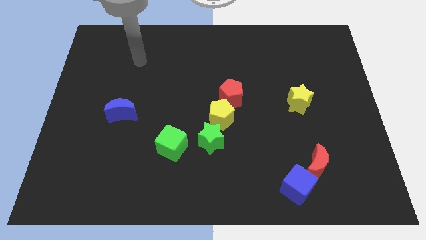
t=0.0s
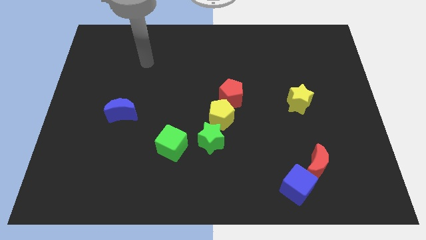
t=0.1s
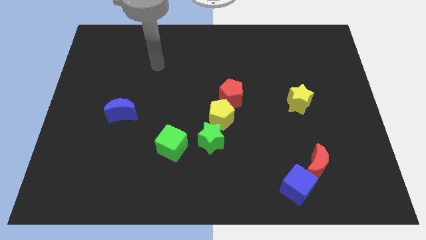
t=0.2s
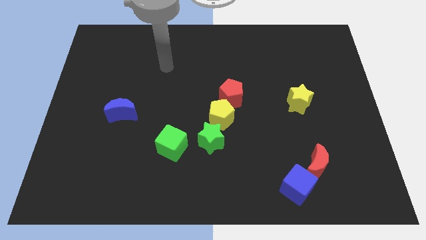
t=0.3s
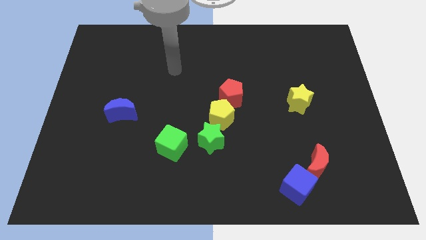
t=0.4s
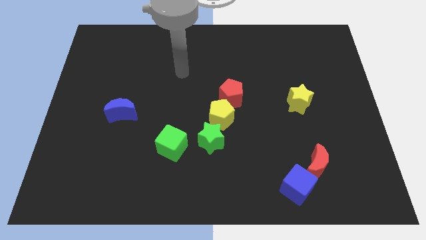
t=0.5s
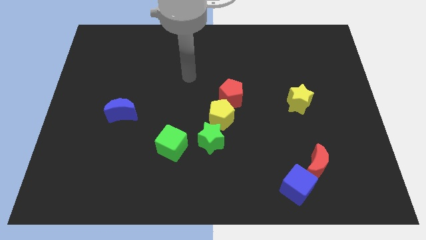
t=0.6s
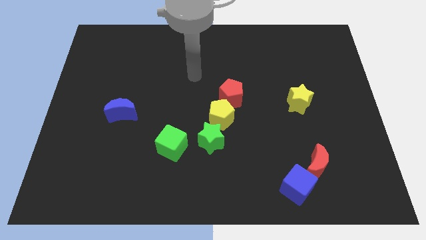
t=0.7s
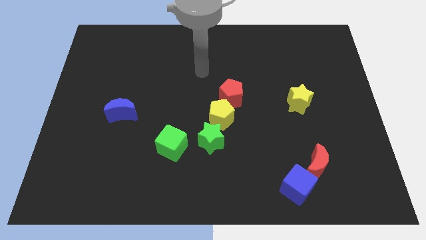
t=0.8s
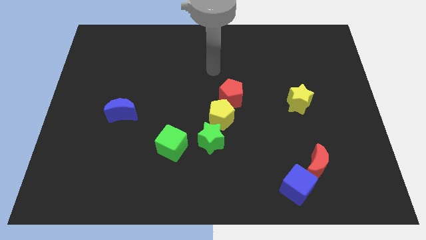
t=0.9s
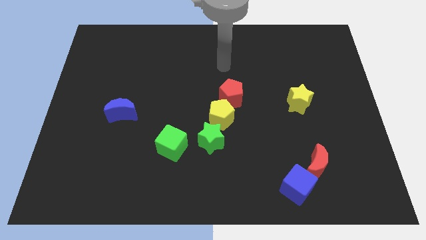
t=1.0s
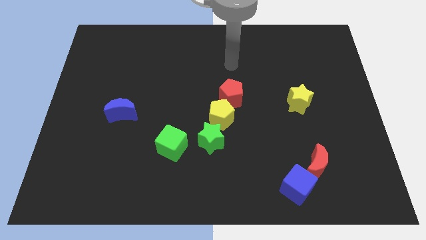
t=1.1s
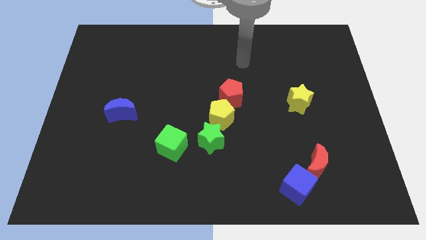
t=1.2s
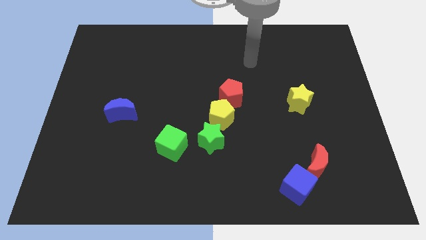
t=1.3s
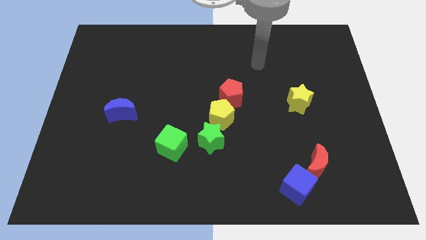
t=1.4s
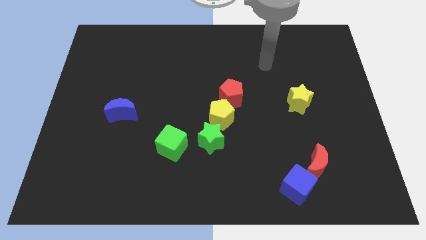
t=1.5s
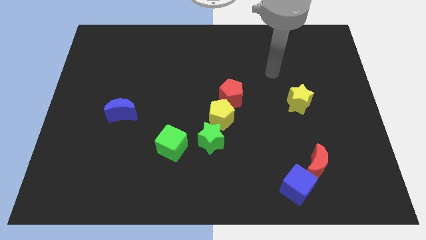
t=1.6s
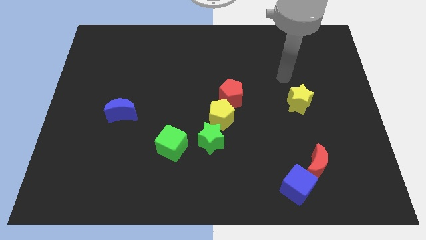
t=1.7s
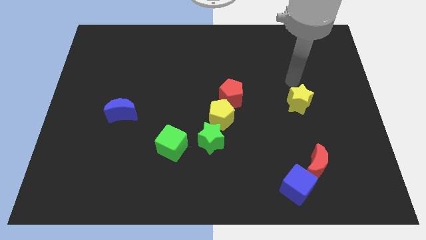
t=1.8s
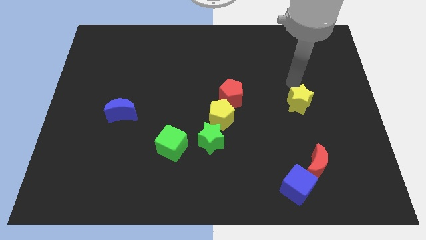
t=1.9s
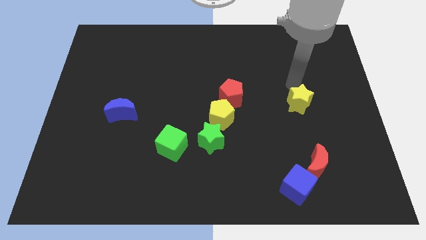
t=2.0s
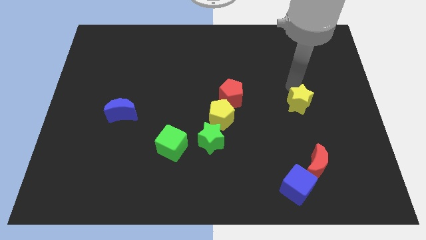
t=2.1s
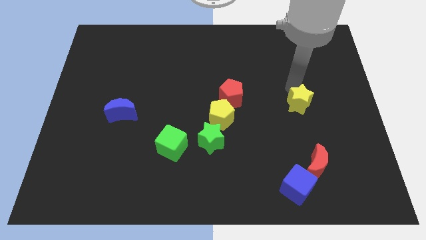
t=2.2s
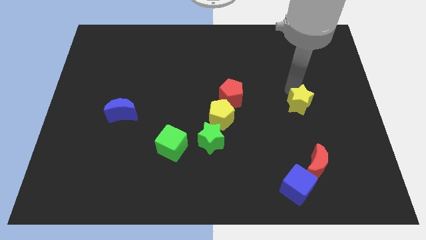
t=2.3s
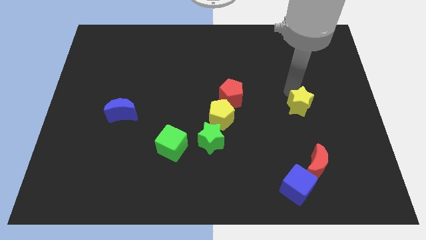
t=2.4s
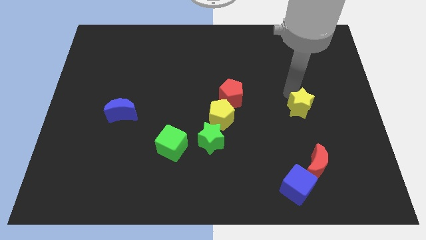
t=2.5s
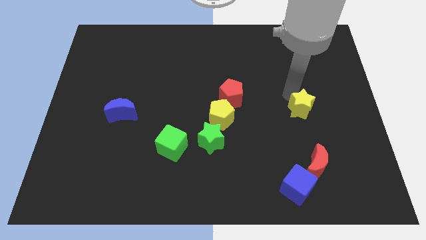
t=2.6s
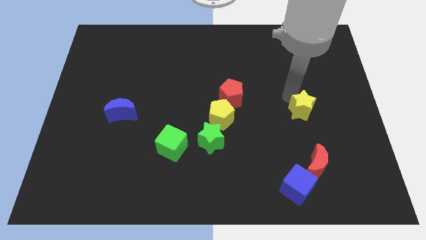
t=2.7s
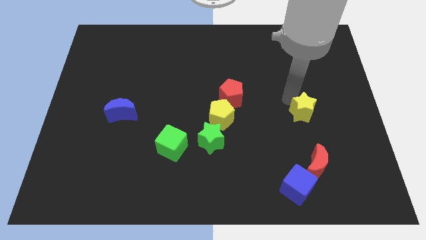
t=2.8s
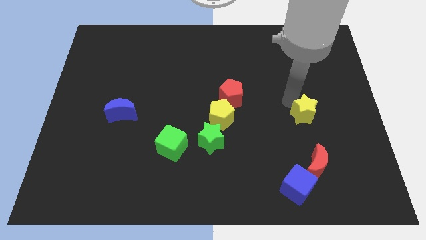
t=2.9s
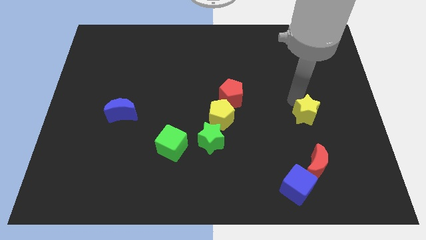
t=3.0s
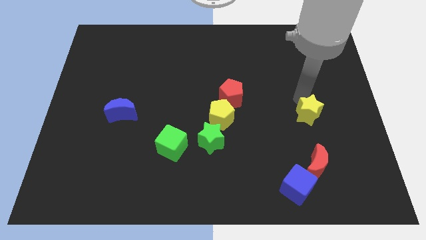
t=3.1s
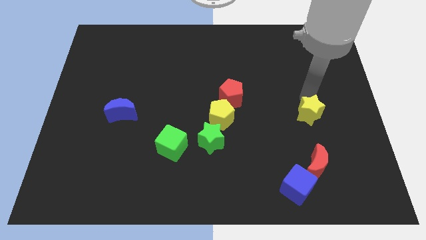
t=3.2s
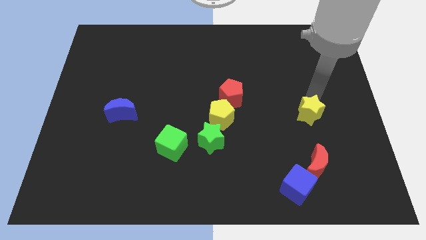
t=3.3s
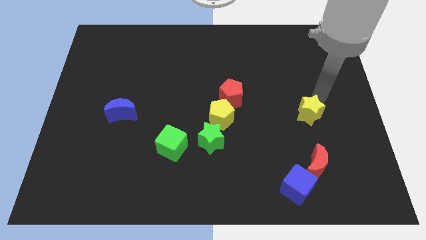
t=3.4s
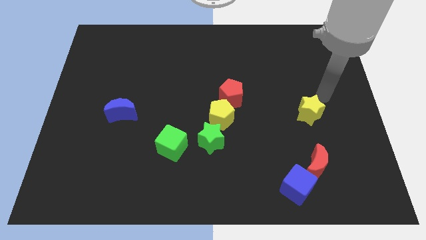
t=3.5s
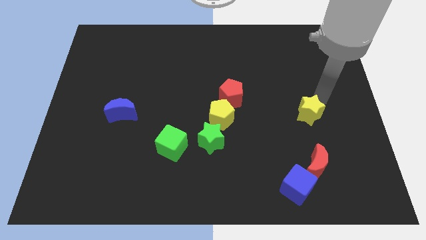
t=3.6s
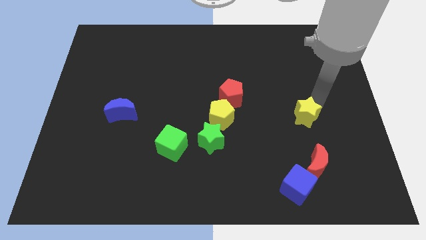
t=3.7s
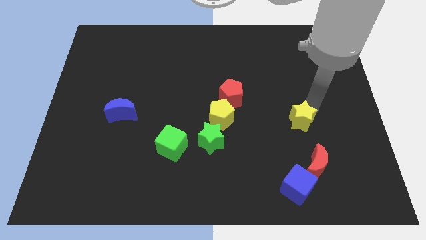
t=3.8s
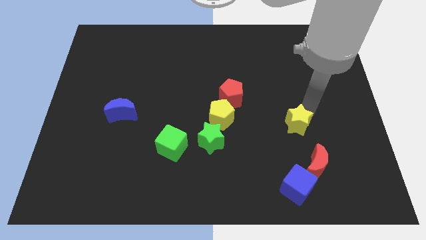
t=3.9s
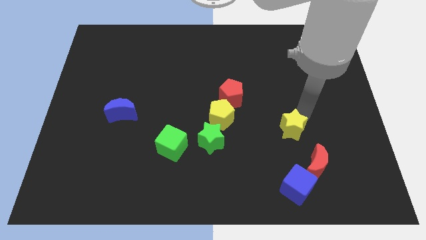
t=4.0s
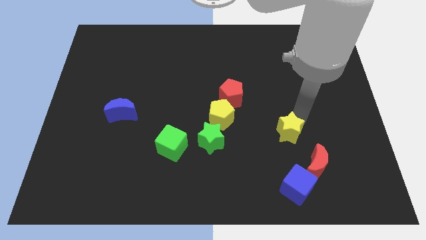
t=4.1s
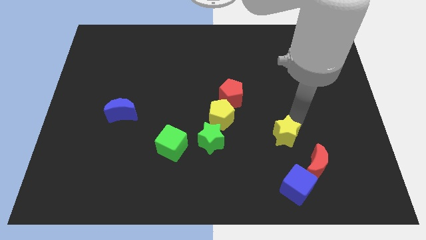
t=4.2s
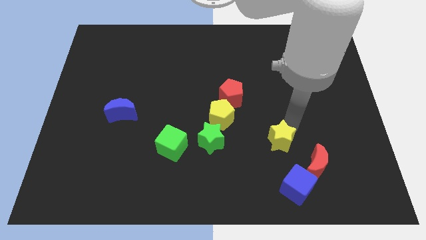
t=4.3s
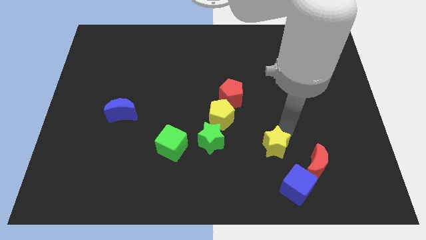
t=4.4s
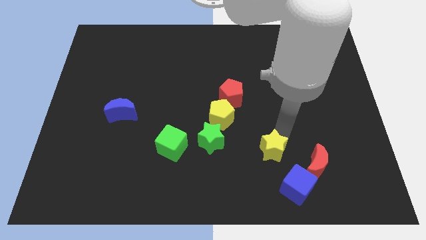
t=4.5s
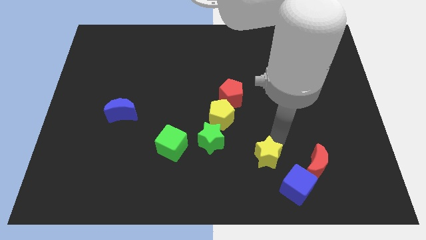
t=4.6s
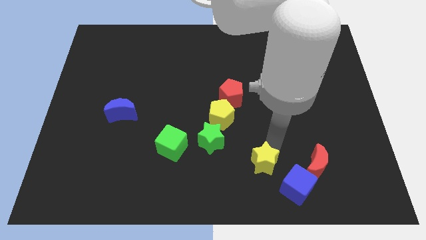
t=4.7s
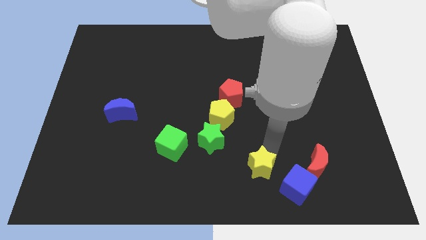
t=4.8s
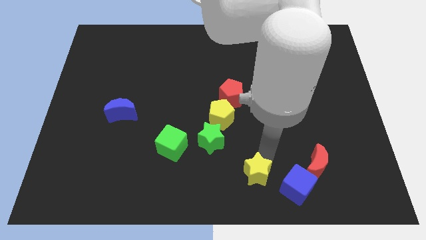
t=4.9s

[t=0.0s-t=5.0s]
push the yellow star to the bottom

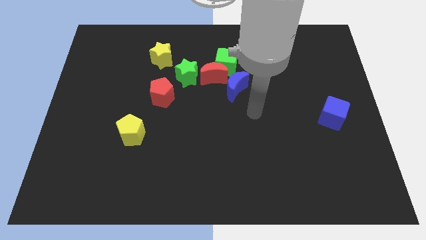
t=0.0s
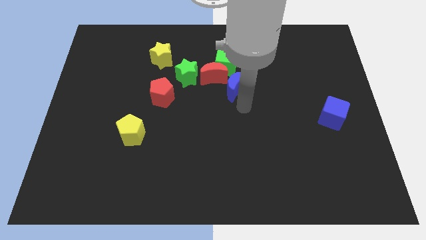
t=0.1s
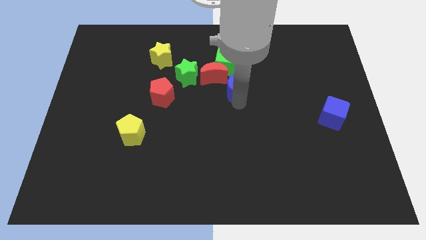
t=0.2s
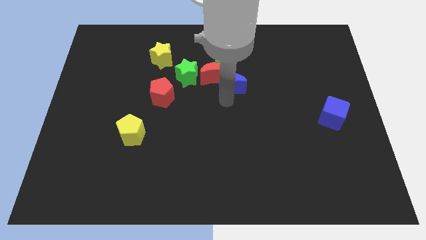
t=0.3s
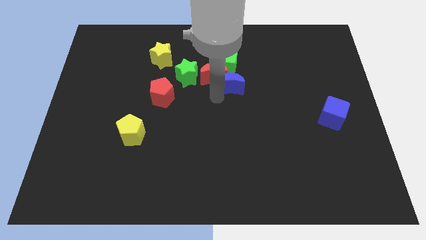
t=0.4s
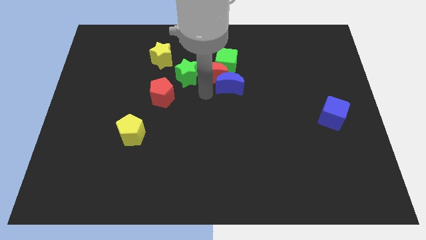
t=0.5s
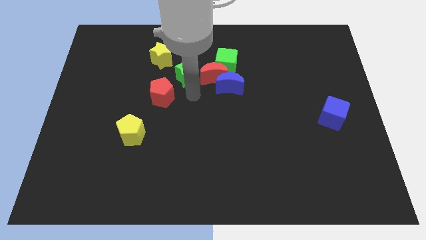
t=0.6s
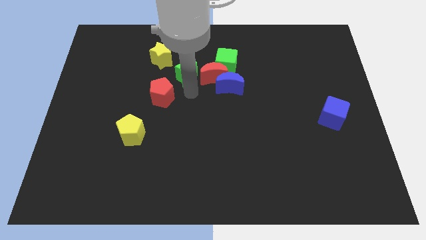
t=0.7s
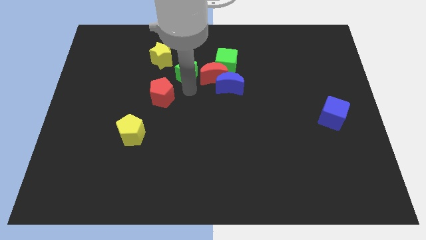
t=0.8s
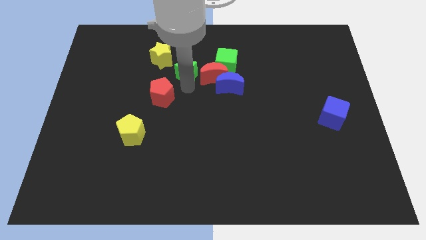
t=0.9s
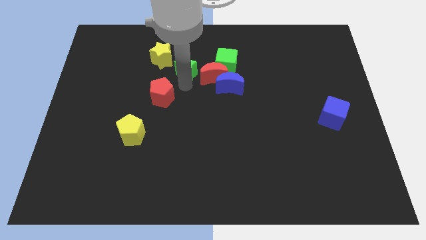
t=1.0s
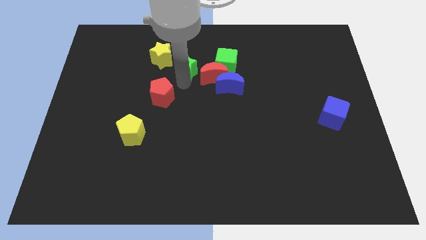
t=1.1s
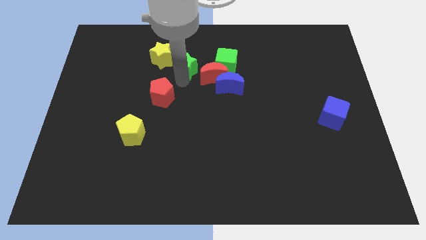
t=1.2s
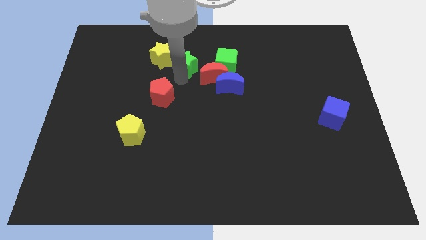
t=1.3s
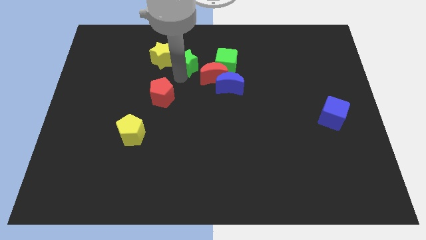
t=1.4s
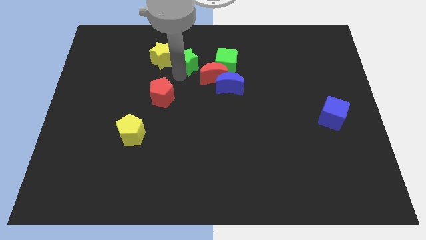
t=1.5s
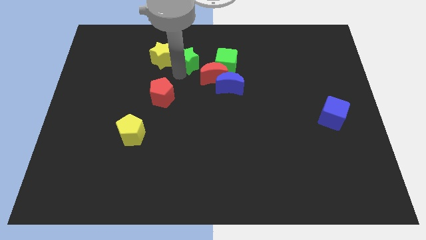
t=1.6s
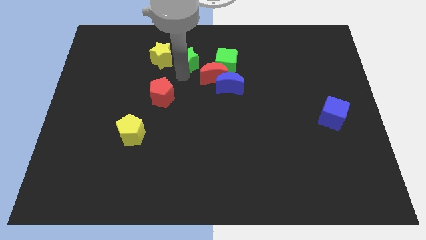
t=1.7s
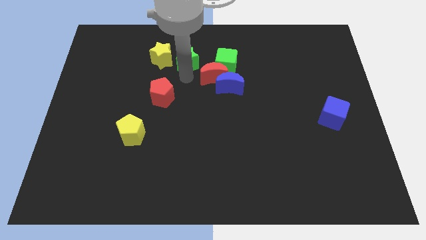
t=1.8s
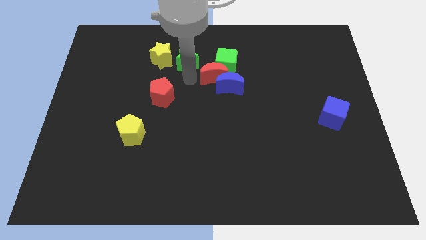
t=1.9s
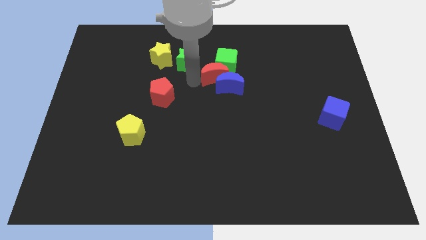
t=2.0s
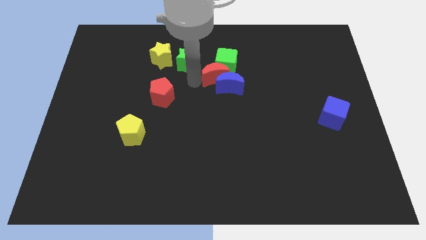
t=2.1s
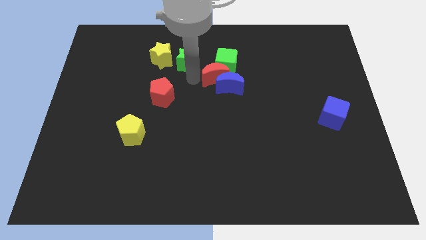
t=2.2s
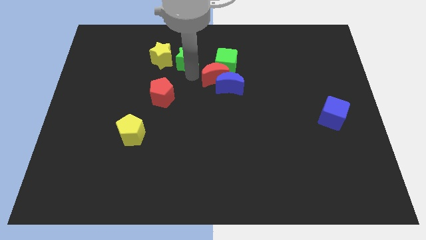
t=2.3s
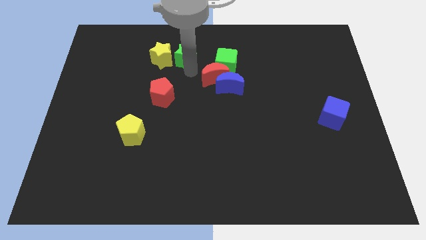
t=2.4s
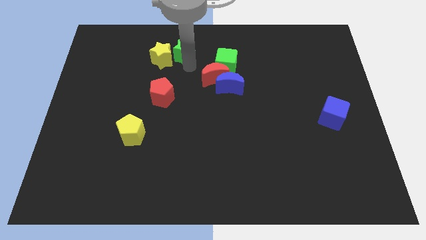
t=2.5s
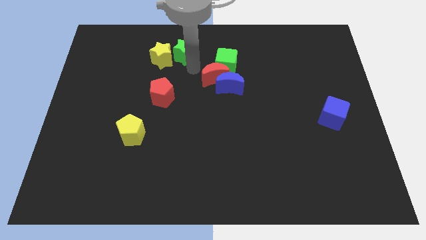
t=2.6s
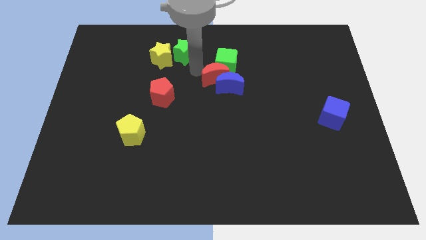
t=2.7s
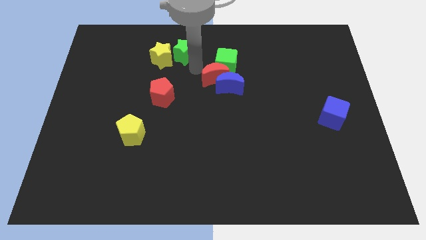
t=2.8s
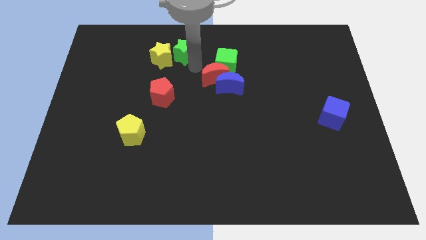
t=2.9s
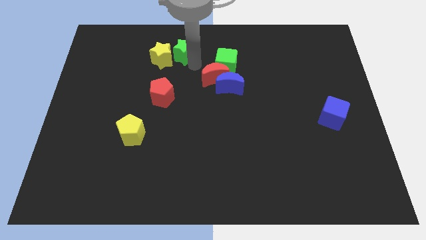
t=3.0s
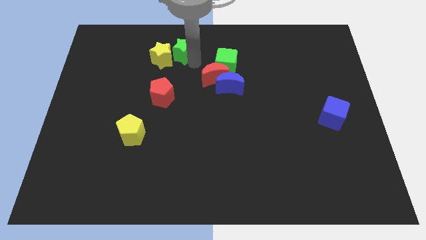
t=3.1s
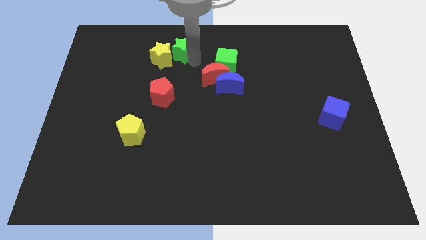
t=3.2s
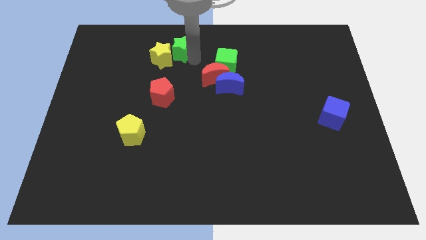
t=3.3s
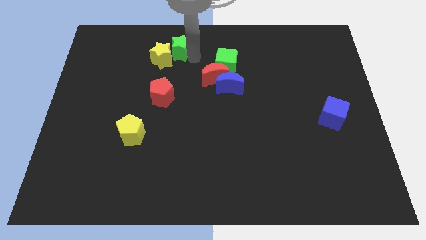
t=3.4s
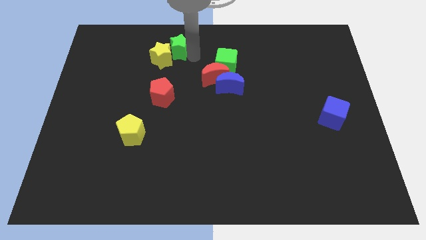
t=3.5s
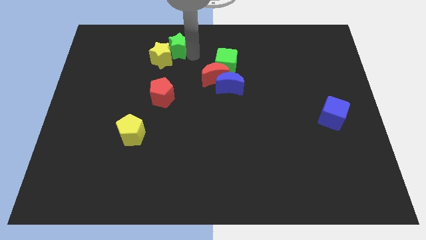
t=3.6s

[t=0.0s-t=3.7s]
put the green star to the towards your base
